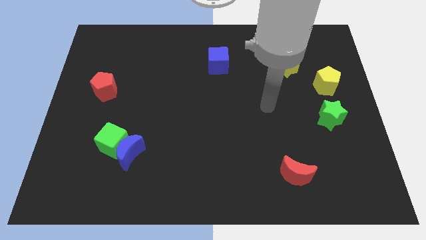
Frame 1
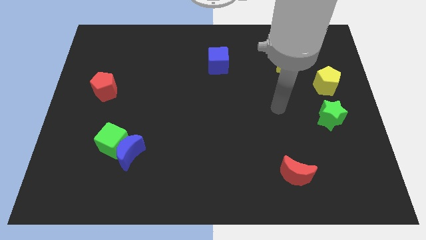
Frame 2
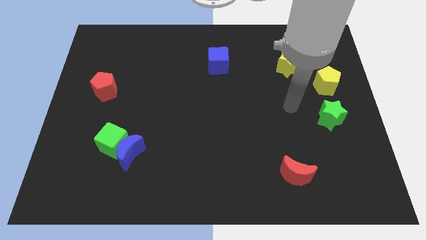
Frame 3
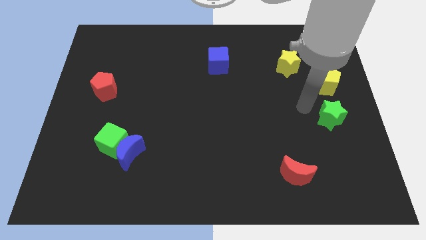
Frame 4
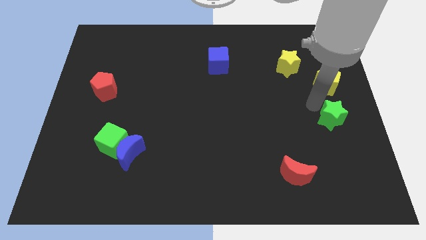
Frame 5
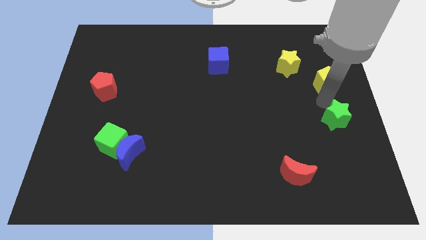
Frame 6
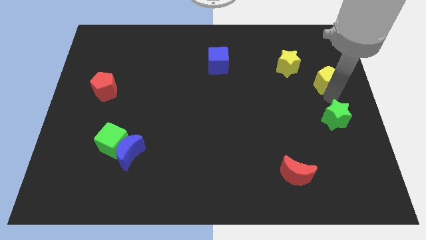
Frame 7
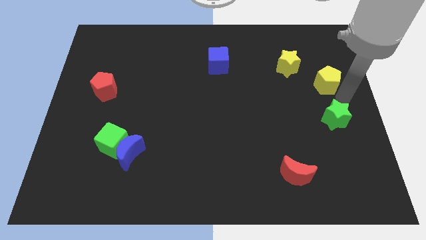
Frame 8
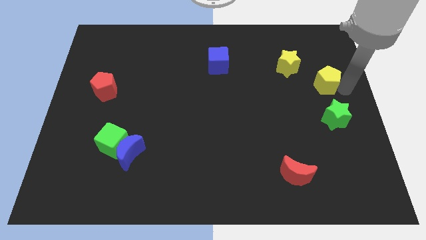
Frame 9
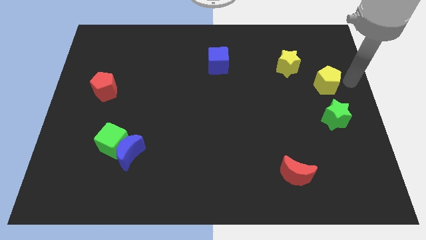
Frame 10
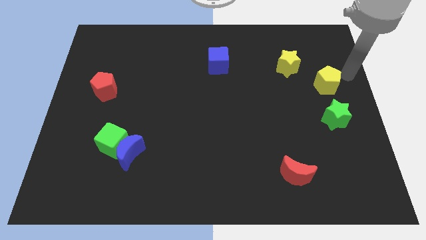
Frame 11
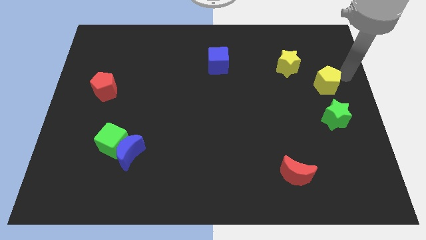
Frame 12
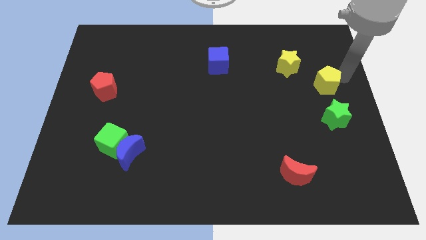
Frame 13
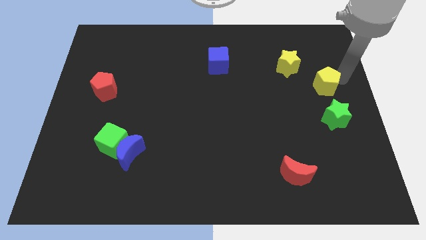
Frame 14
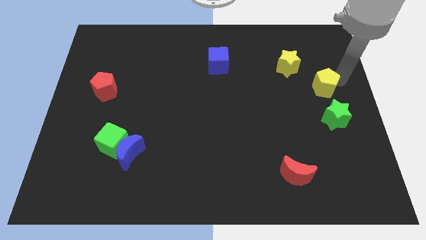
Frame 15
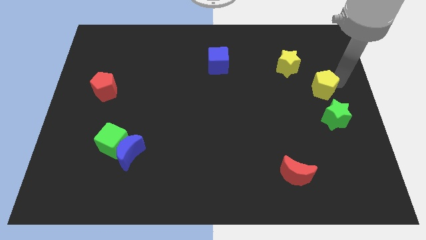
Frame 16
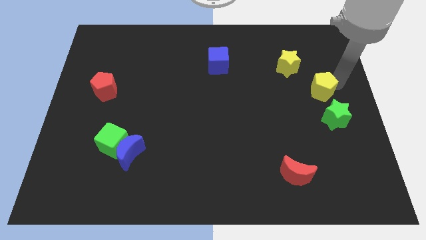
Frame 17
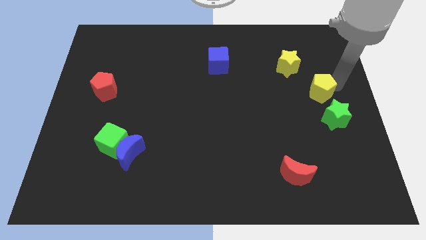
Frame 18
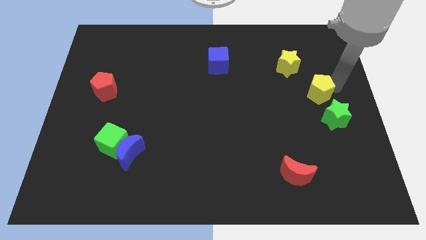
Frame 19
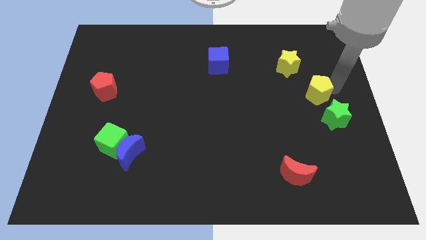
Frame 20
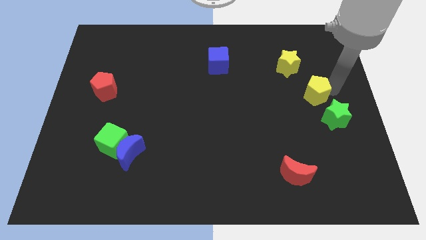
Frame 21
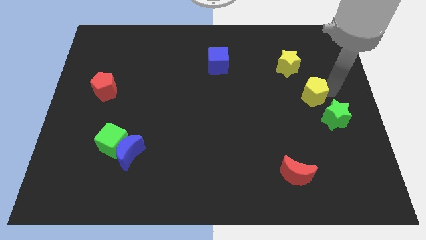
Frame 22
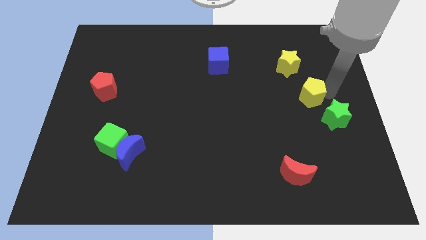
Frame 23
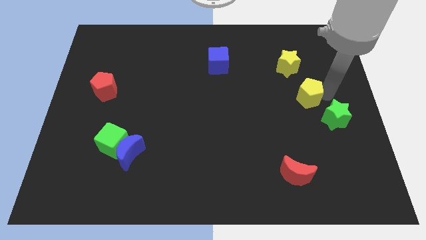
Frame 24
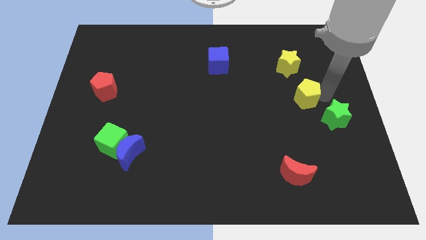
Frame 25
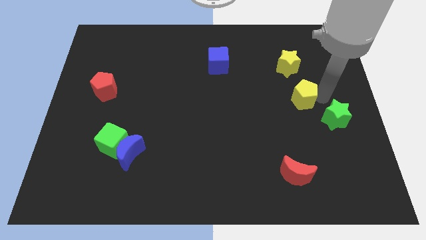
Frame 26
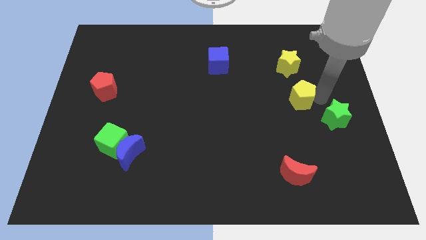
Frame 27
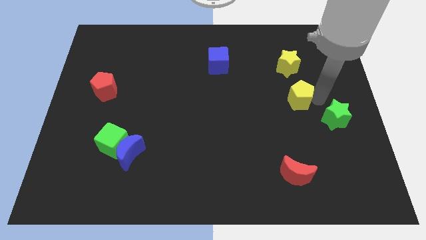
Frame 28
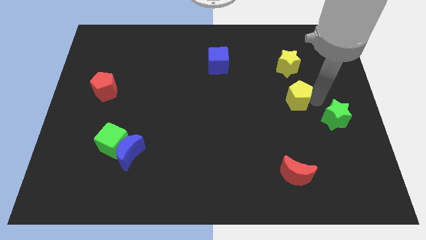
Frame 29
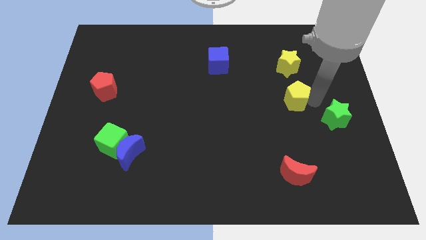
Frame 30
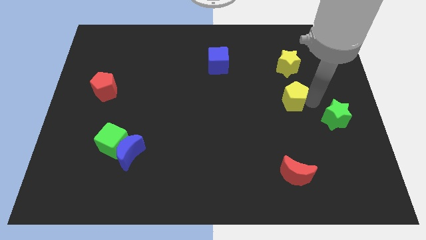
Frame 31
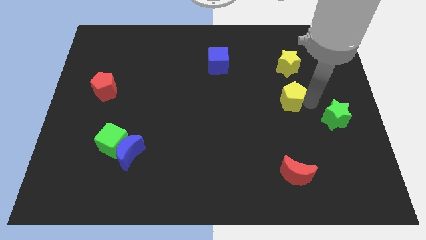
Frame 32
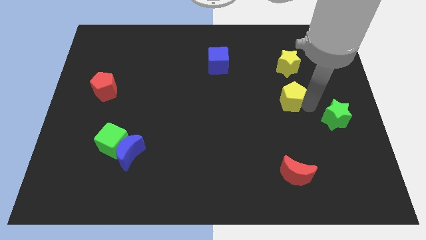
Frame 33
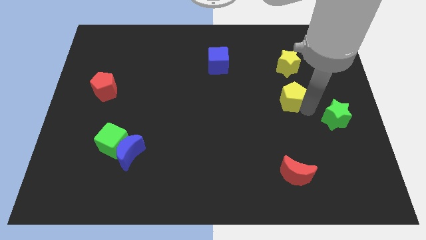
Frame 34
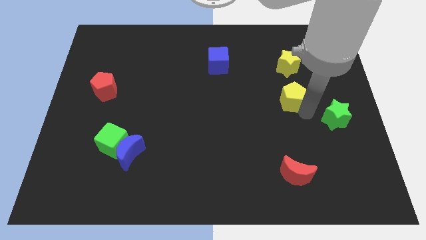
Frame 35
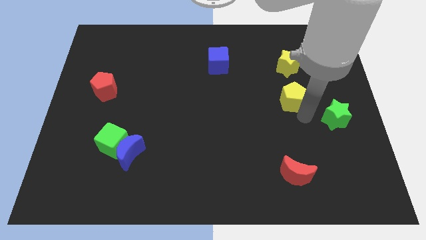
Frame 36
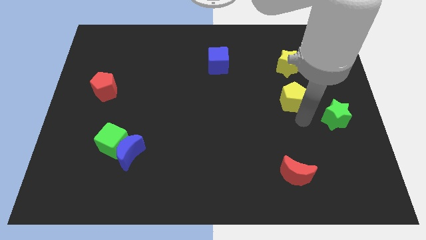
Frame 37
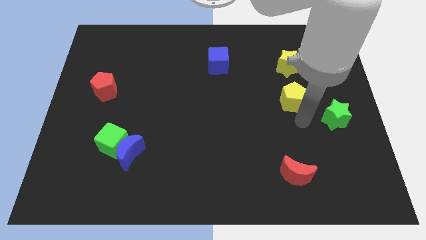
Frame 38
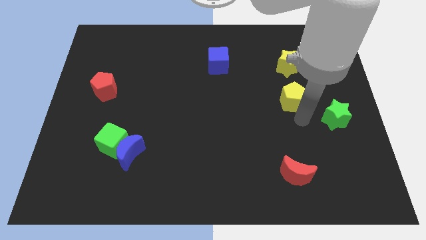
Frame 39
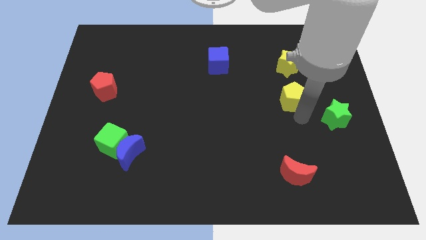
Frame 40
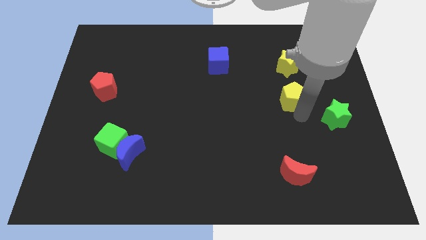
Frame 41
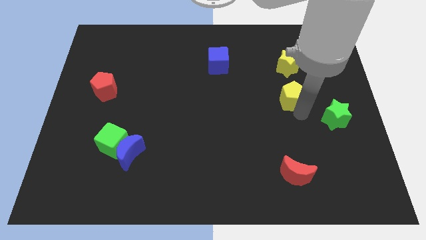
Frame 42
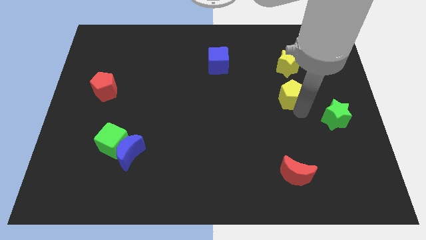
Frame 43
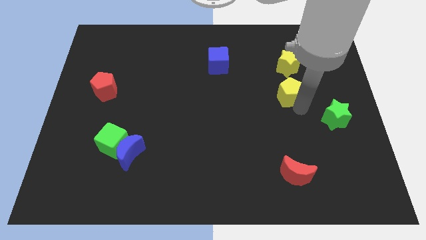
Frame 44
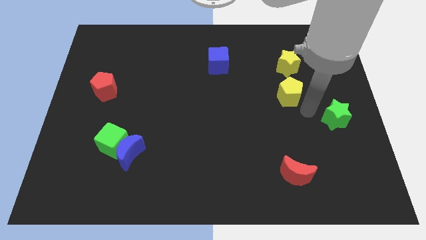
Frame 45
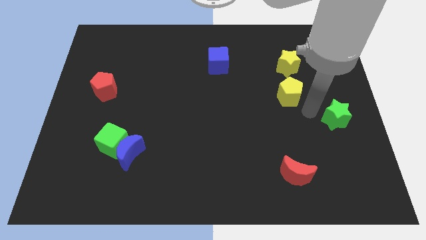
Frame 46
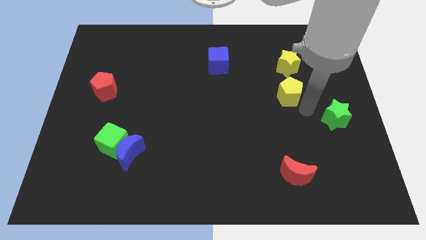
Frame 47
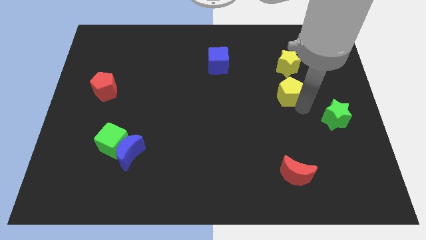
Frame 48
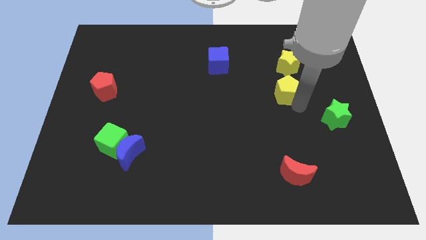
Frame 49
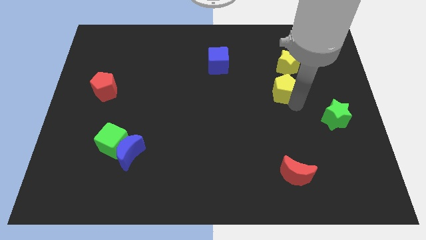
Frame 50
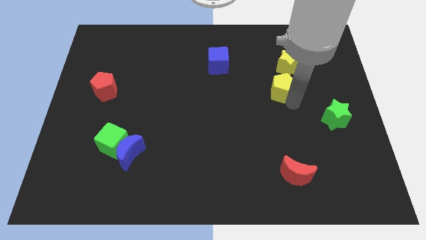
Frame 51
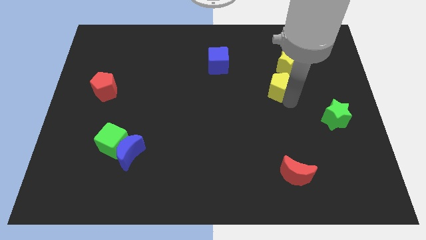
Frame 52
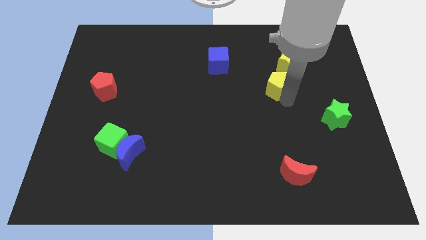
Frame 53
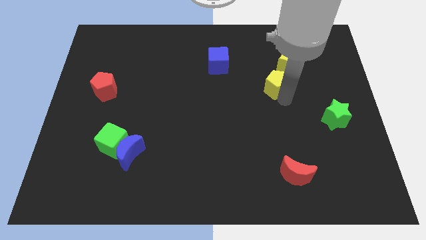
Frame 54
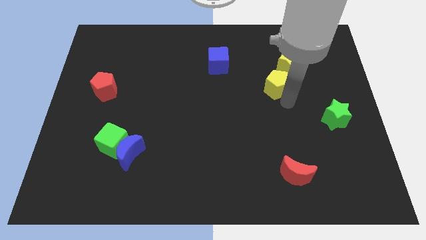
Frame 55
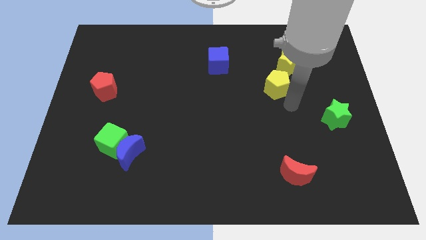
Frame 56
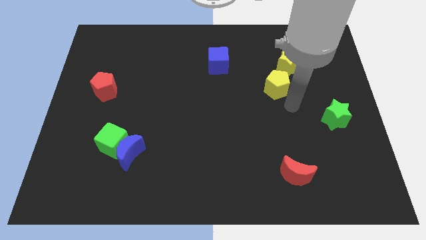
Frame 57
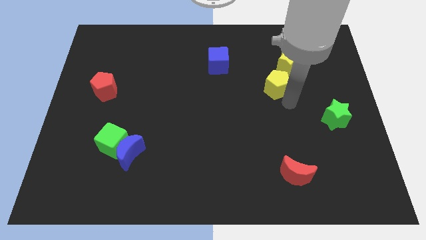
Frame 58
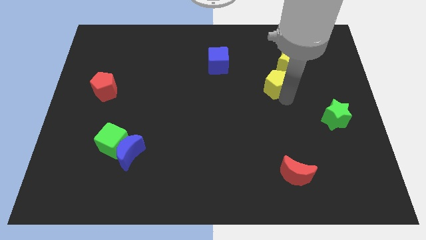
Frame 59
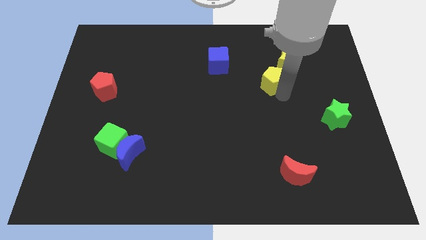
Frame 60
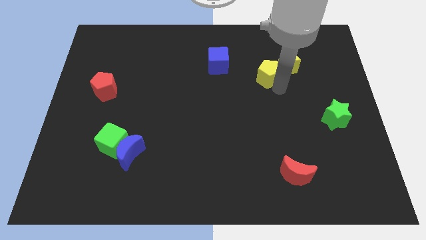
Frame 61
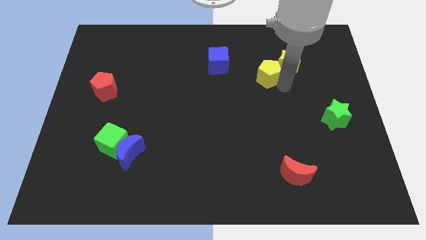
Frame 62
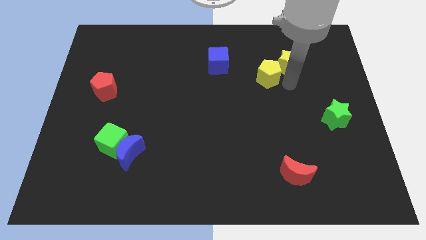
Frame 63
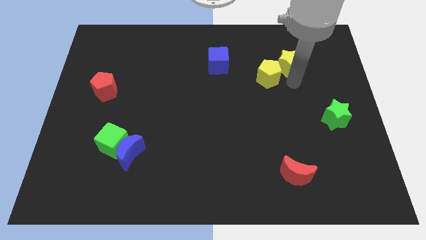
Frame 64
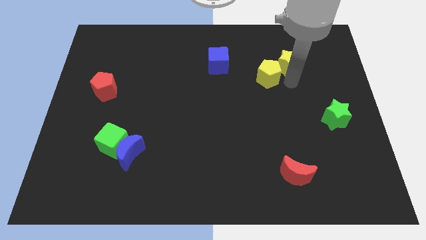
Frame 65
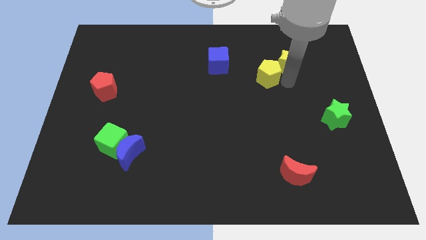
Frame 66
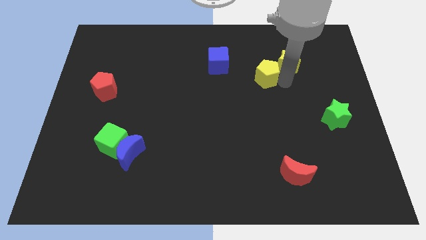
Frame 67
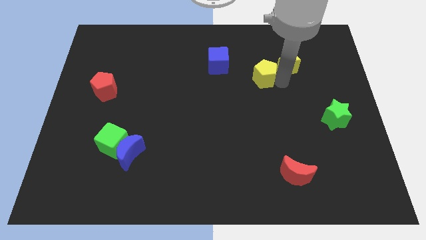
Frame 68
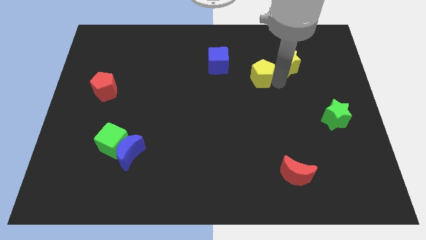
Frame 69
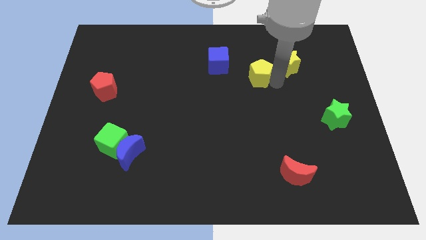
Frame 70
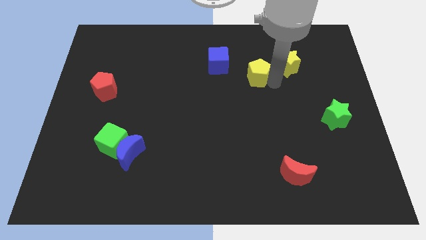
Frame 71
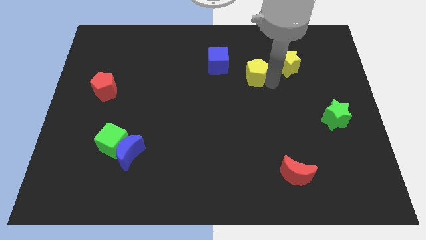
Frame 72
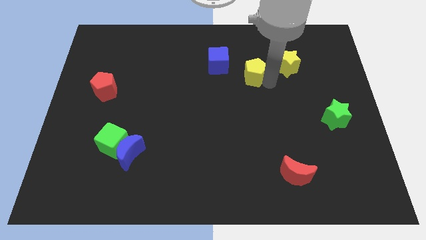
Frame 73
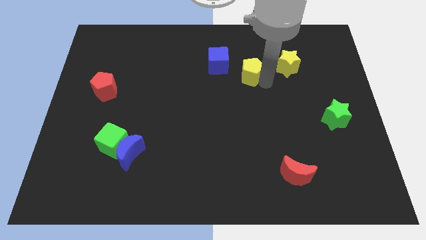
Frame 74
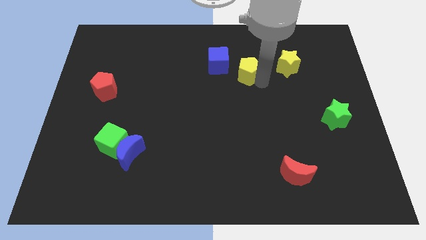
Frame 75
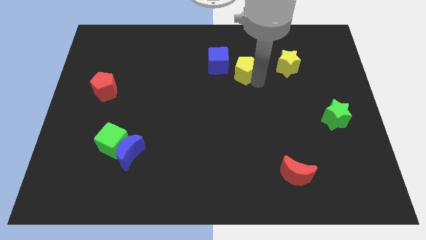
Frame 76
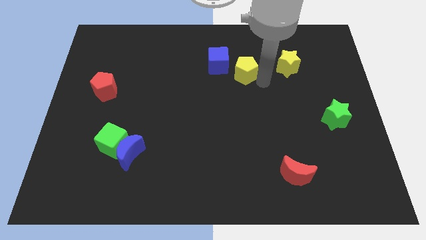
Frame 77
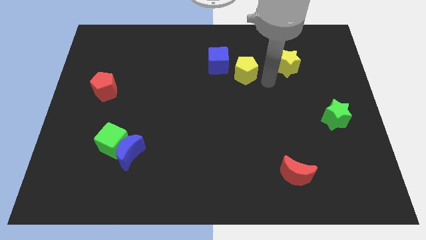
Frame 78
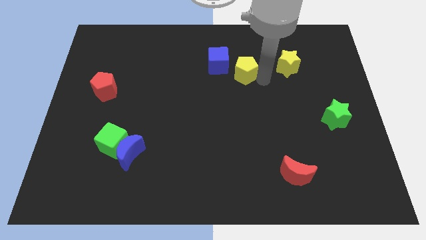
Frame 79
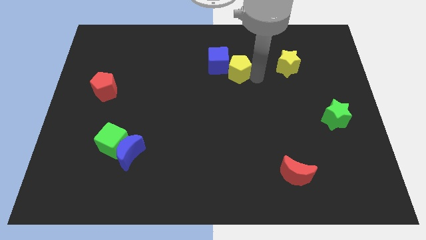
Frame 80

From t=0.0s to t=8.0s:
move the yellow pentagon close to the blue cube
